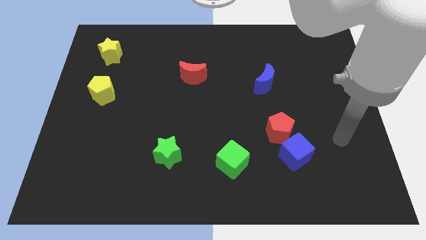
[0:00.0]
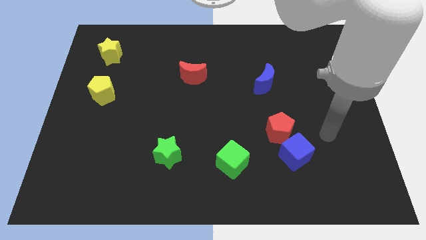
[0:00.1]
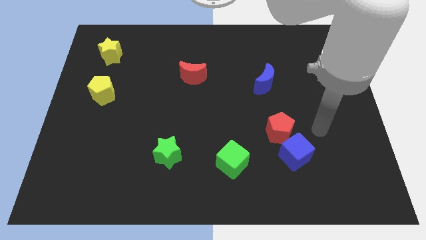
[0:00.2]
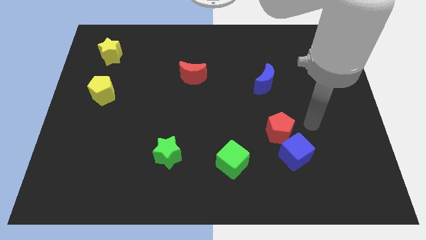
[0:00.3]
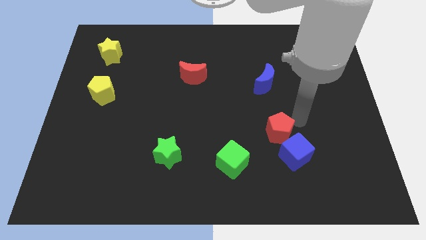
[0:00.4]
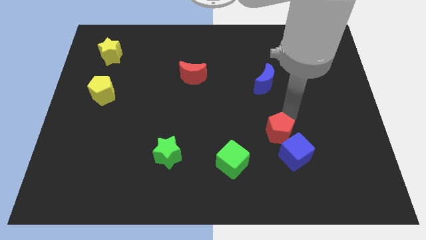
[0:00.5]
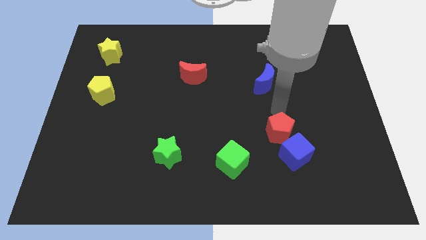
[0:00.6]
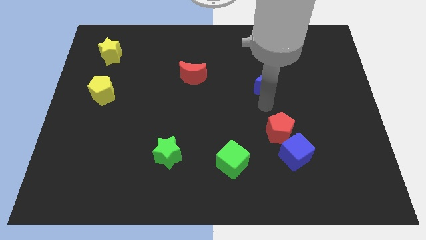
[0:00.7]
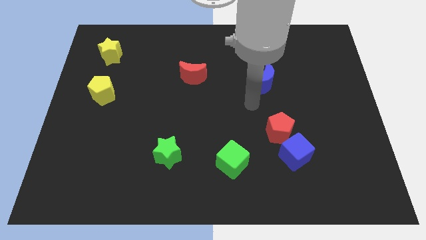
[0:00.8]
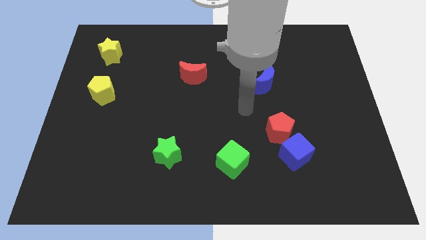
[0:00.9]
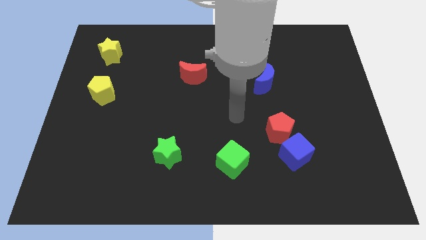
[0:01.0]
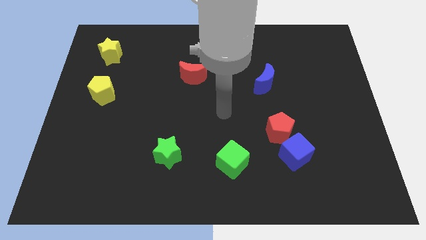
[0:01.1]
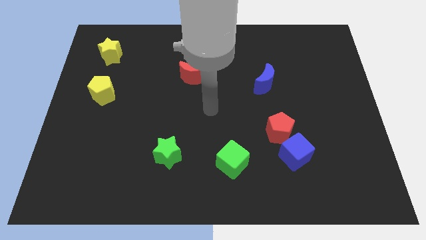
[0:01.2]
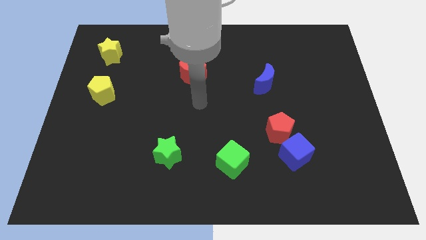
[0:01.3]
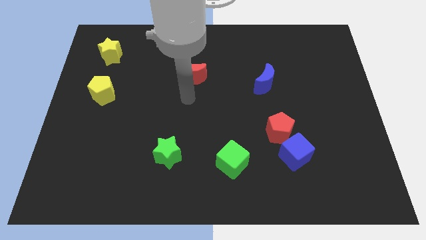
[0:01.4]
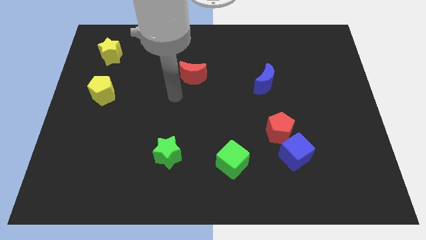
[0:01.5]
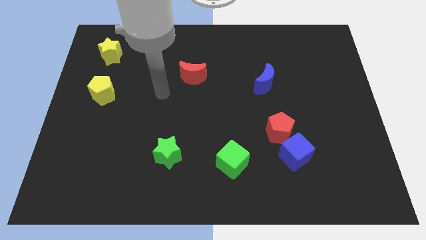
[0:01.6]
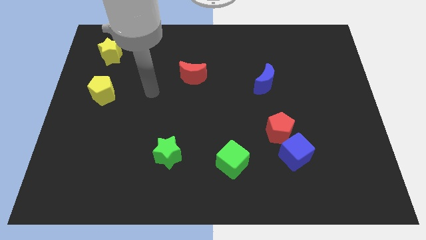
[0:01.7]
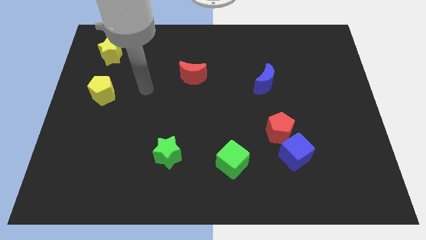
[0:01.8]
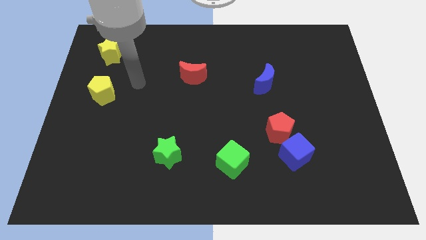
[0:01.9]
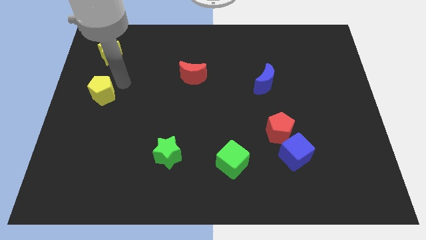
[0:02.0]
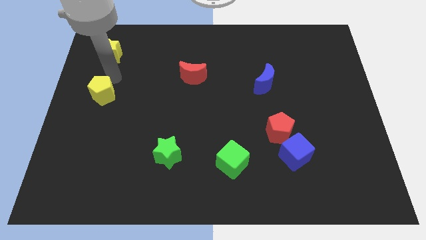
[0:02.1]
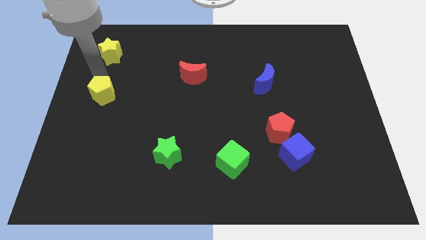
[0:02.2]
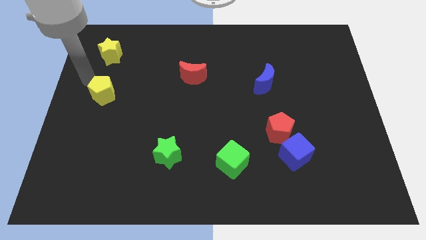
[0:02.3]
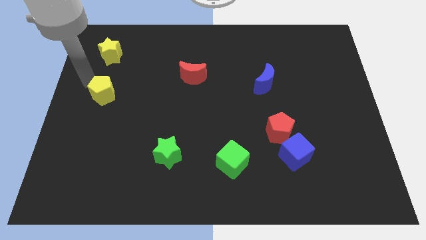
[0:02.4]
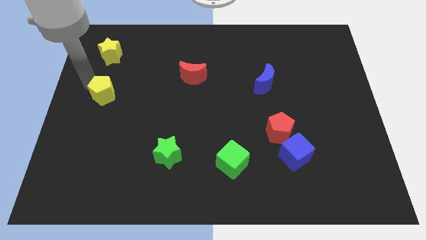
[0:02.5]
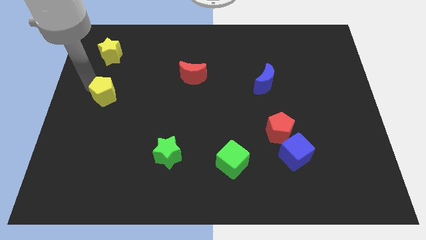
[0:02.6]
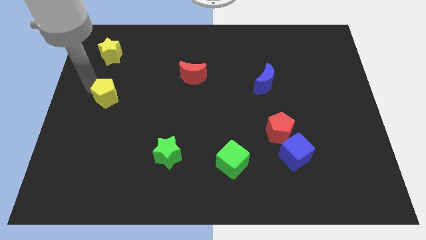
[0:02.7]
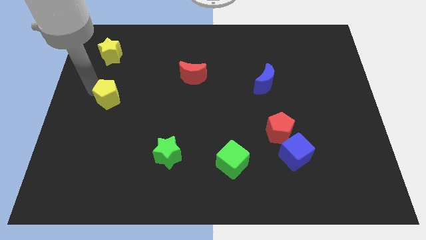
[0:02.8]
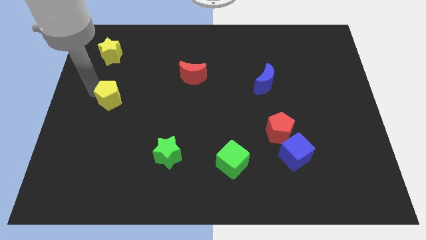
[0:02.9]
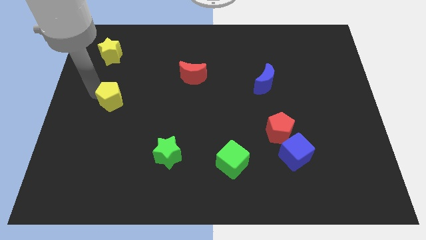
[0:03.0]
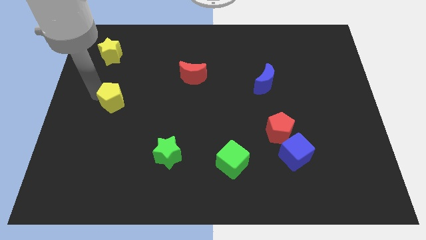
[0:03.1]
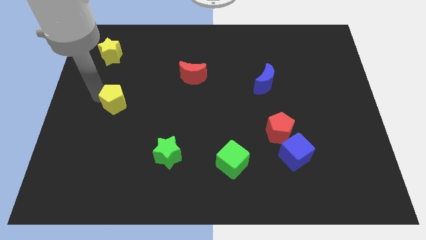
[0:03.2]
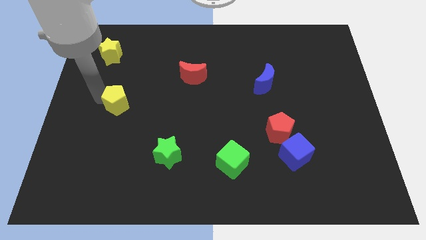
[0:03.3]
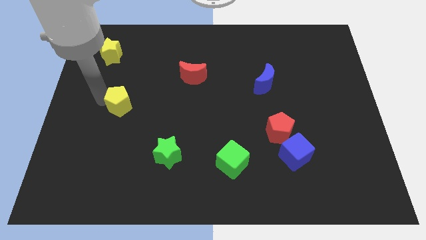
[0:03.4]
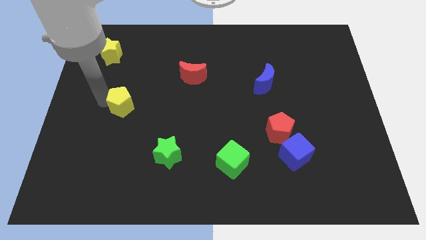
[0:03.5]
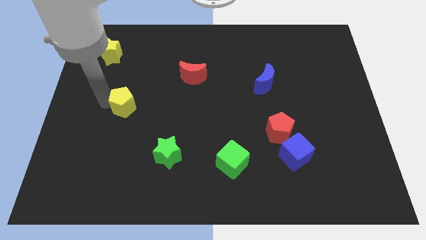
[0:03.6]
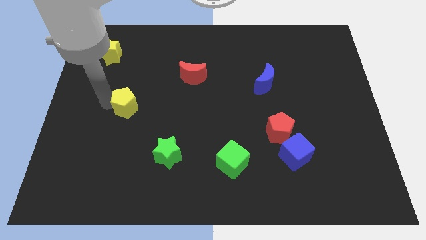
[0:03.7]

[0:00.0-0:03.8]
slightly push the yellow pentagon diagonally downwards and to the right

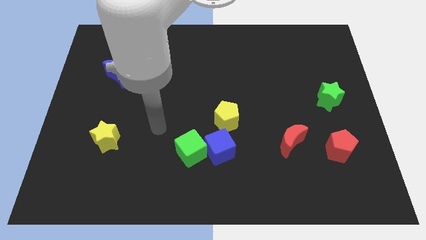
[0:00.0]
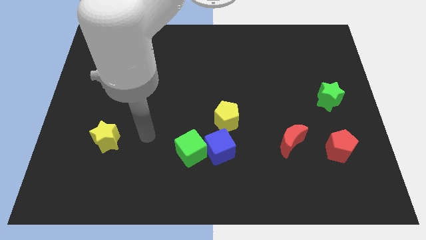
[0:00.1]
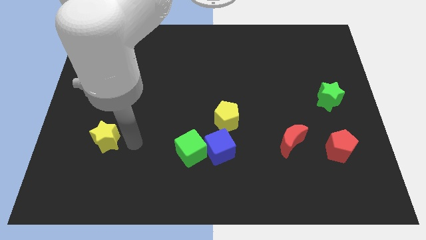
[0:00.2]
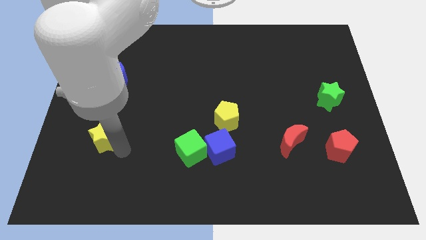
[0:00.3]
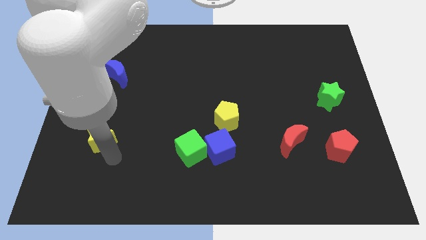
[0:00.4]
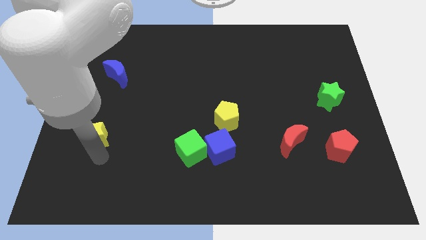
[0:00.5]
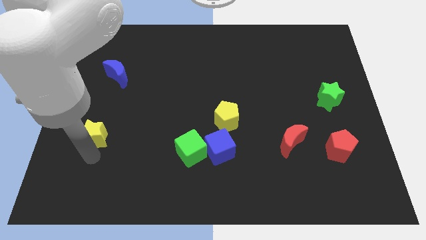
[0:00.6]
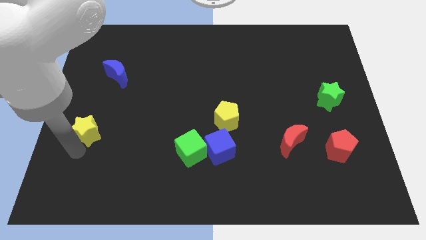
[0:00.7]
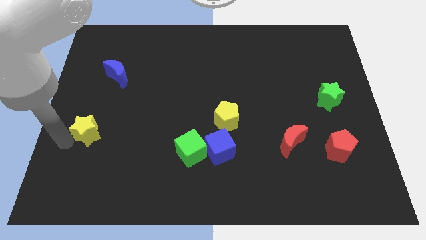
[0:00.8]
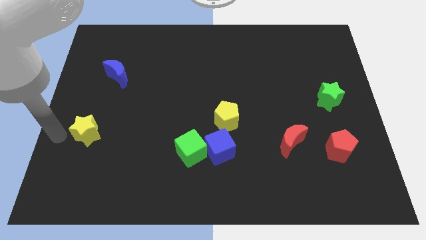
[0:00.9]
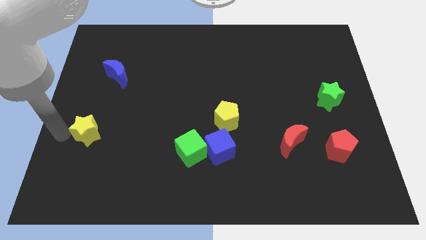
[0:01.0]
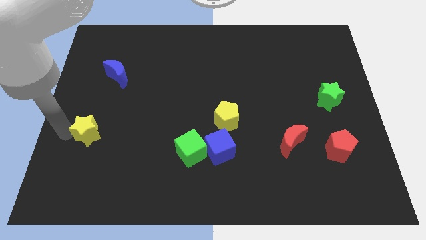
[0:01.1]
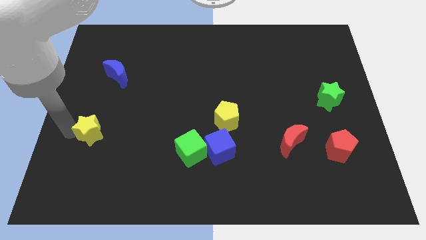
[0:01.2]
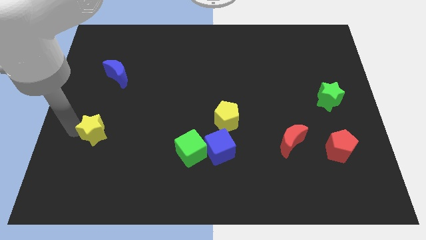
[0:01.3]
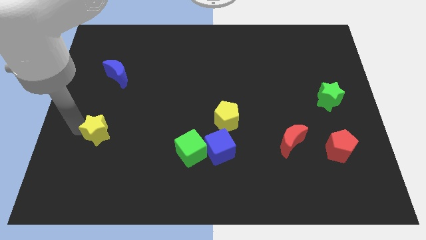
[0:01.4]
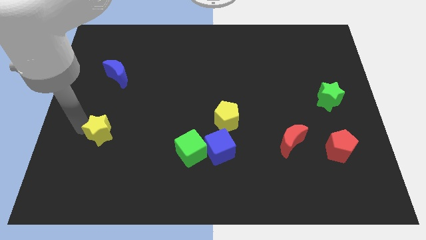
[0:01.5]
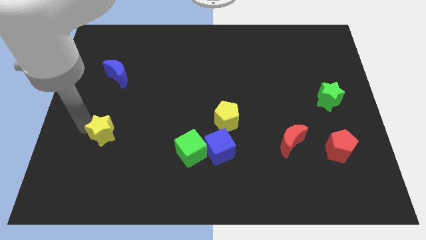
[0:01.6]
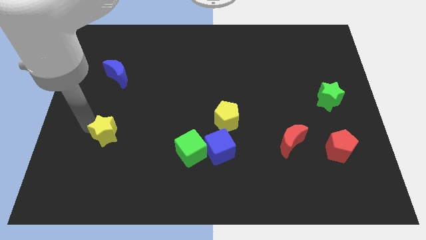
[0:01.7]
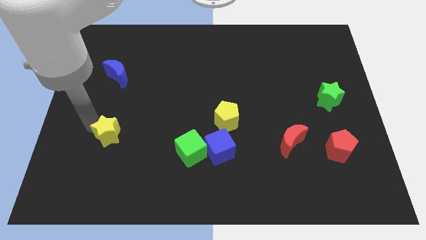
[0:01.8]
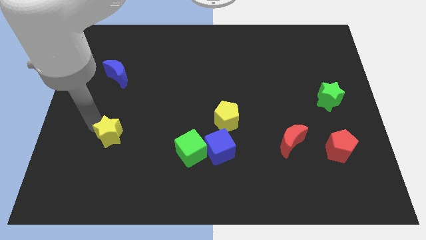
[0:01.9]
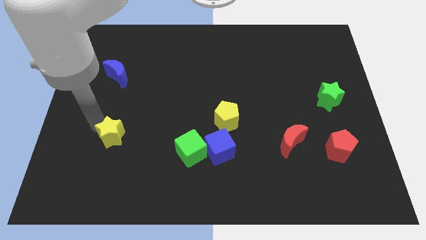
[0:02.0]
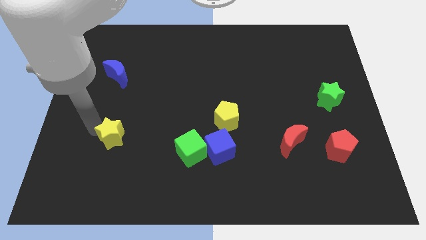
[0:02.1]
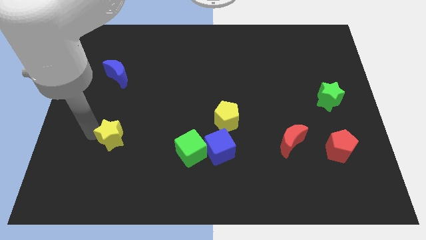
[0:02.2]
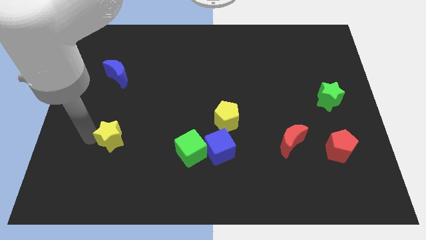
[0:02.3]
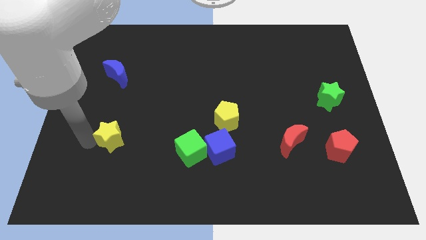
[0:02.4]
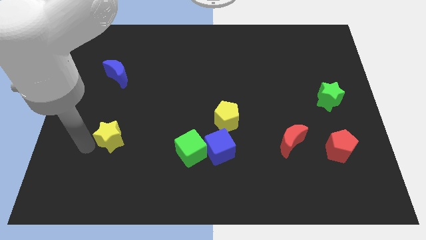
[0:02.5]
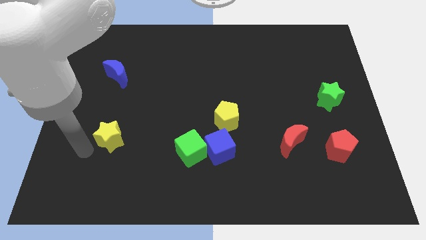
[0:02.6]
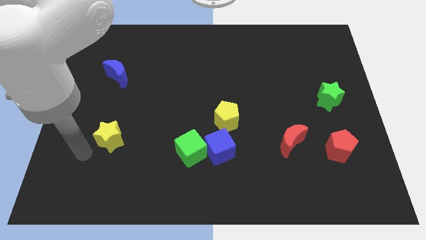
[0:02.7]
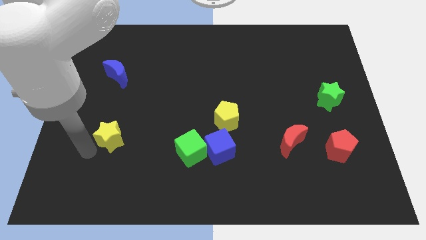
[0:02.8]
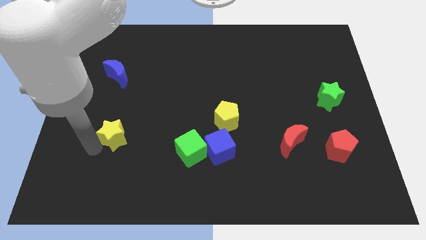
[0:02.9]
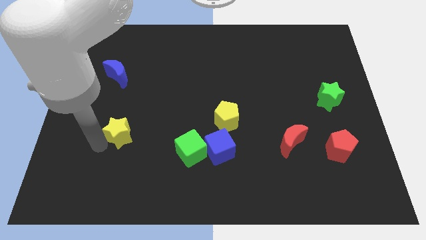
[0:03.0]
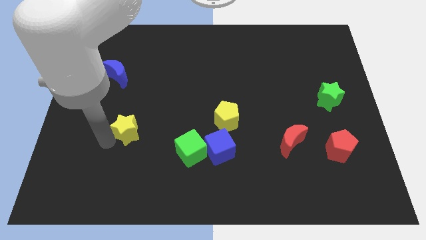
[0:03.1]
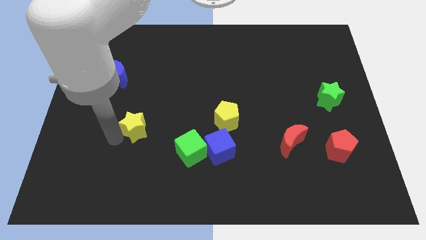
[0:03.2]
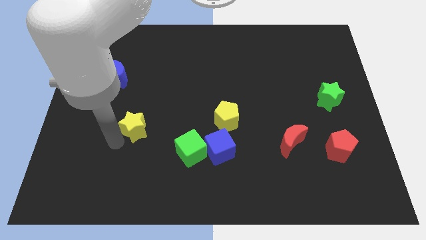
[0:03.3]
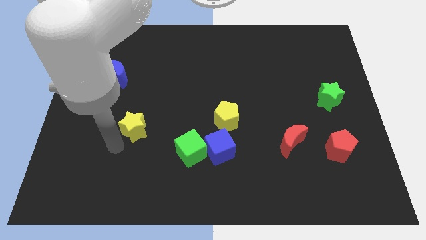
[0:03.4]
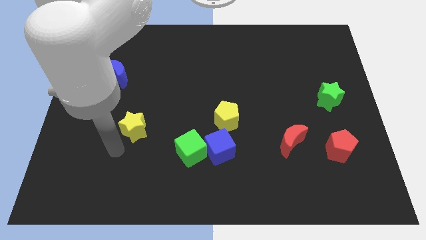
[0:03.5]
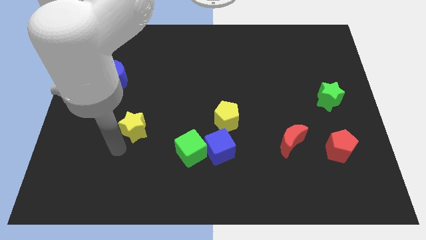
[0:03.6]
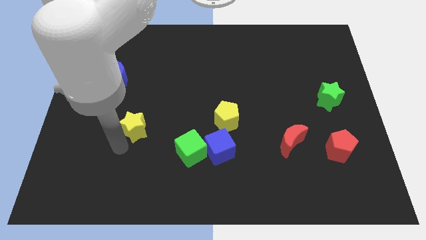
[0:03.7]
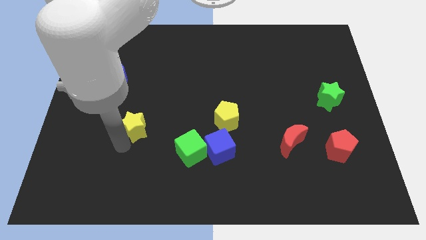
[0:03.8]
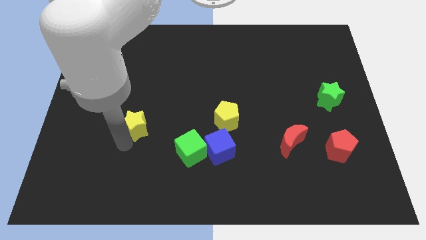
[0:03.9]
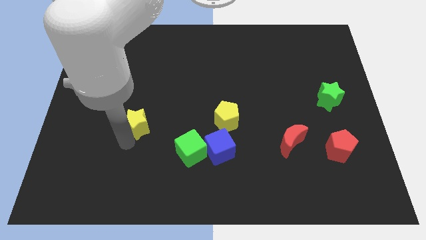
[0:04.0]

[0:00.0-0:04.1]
push the yellow star upwards and to the right a bit
